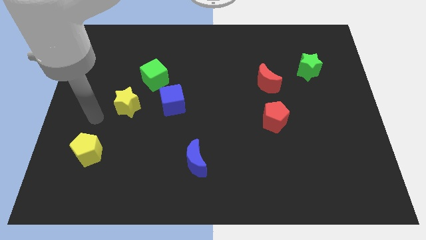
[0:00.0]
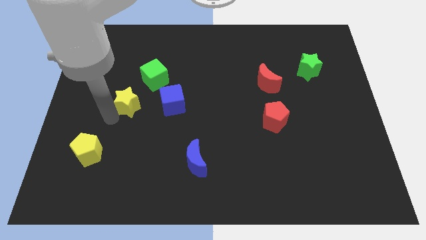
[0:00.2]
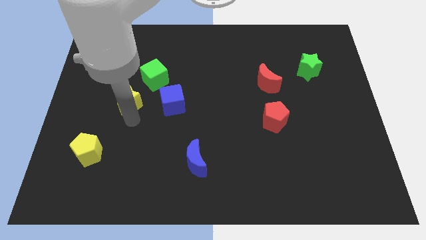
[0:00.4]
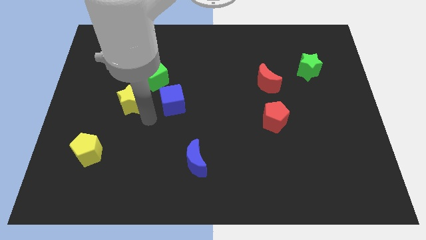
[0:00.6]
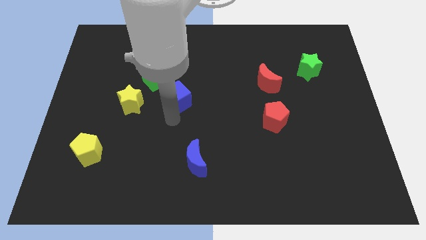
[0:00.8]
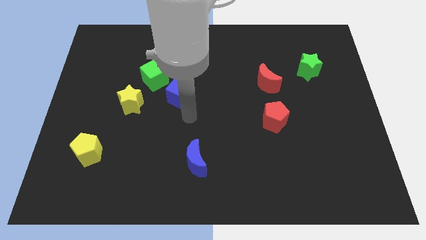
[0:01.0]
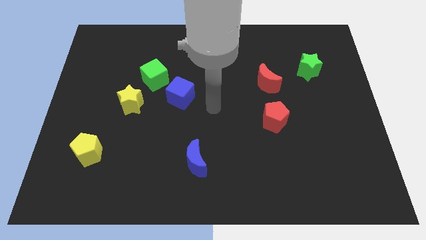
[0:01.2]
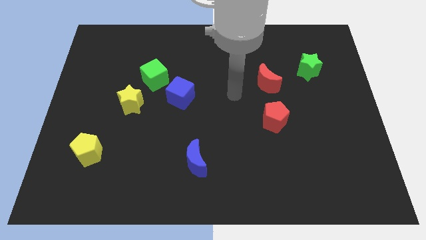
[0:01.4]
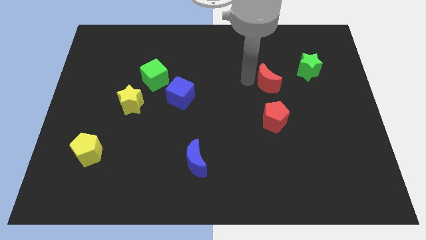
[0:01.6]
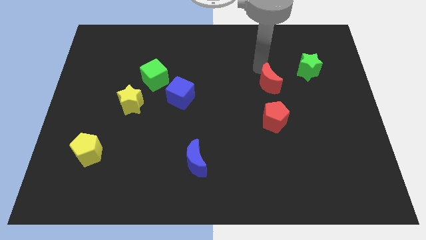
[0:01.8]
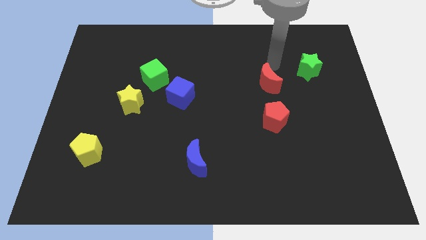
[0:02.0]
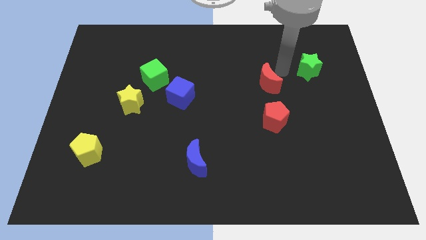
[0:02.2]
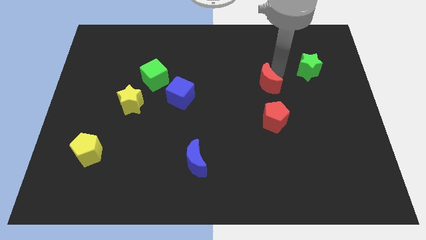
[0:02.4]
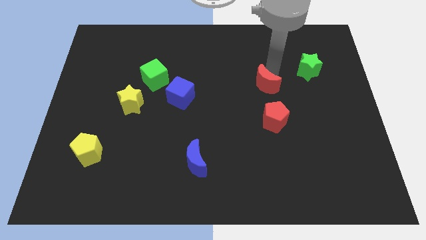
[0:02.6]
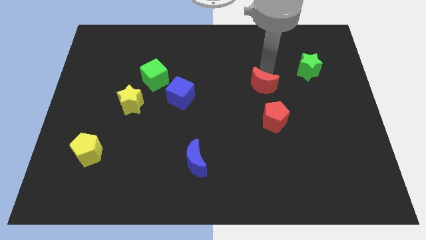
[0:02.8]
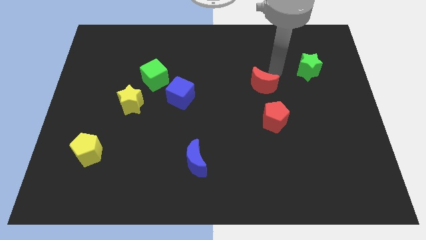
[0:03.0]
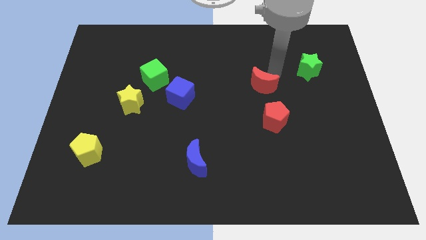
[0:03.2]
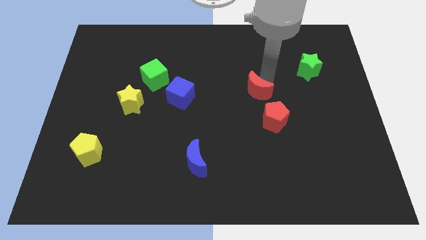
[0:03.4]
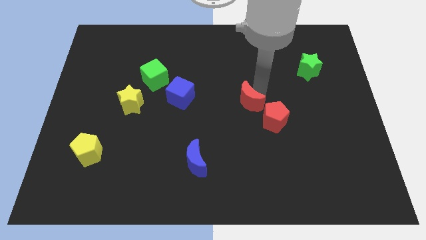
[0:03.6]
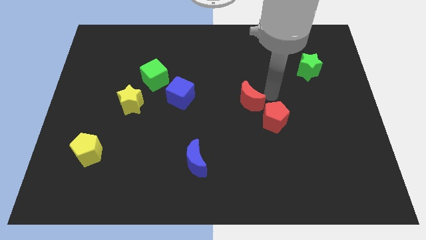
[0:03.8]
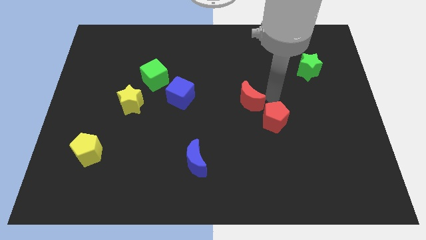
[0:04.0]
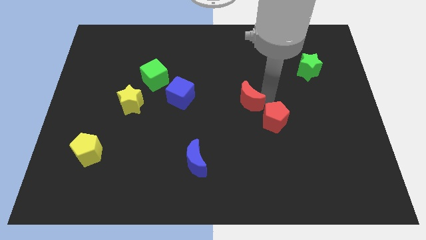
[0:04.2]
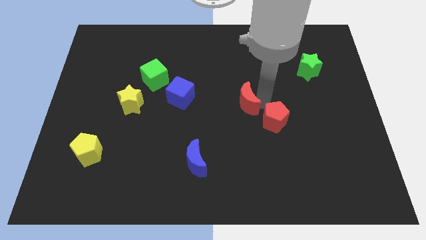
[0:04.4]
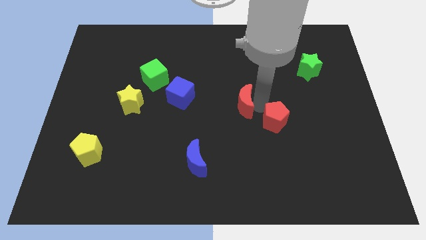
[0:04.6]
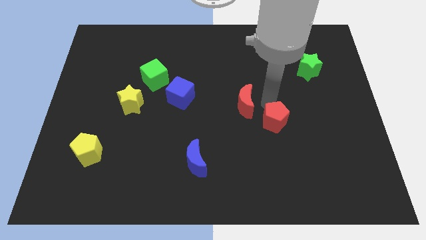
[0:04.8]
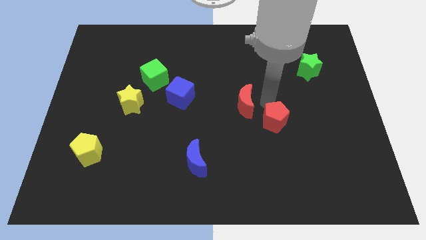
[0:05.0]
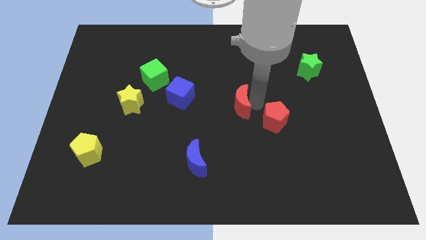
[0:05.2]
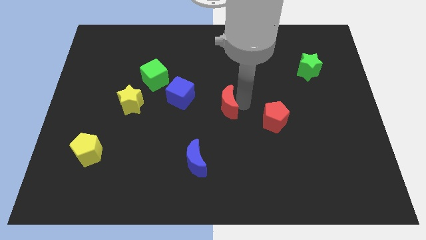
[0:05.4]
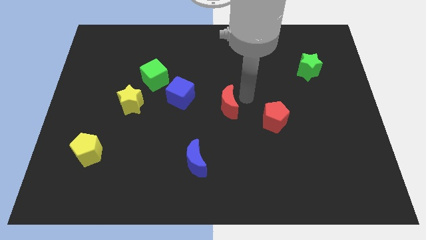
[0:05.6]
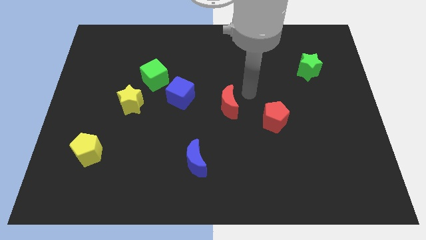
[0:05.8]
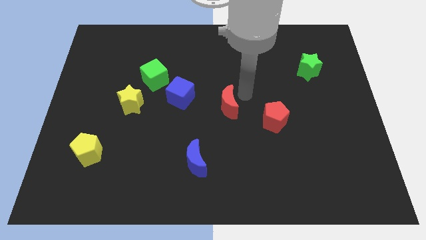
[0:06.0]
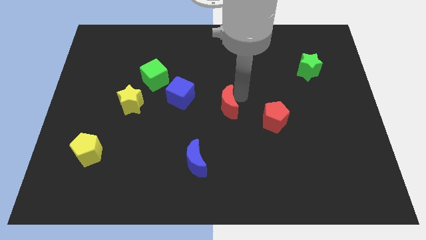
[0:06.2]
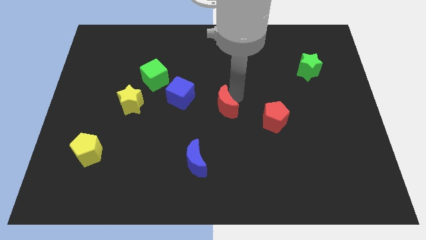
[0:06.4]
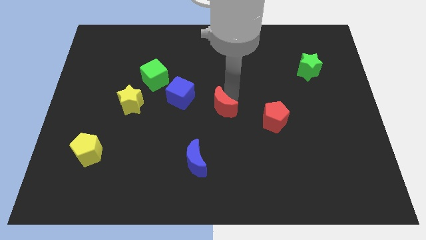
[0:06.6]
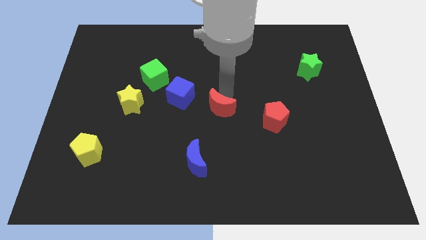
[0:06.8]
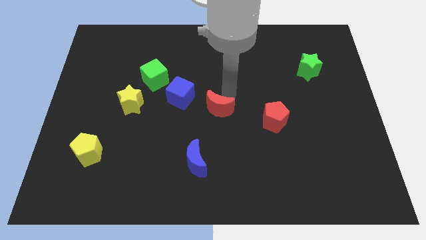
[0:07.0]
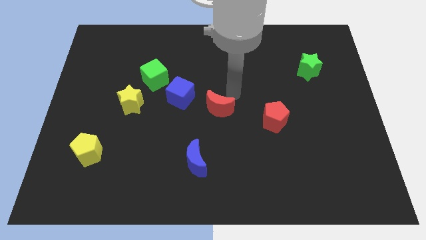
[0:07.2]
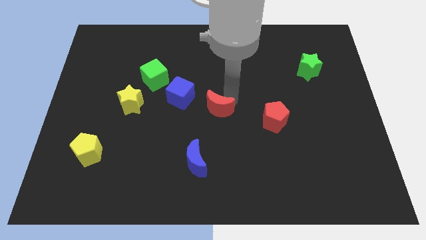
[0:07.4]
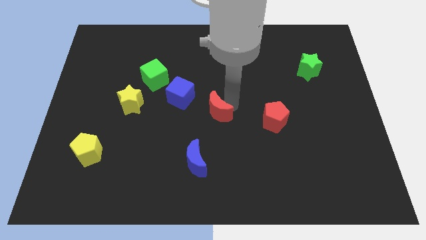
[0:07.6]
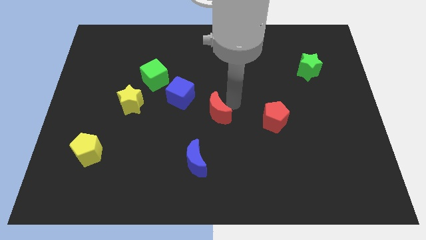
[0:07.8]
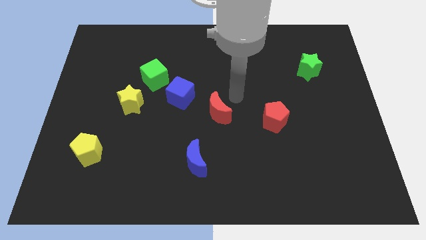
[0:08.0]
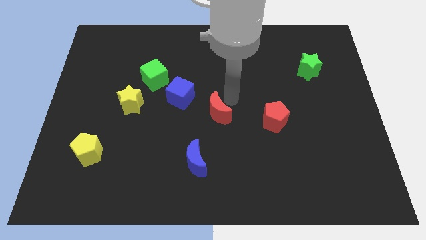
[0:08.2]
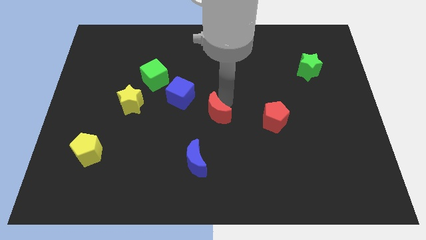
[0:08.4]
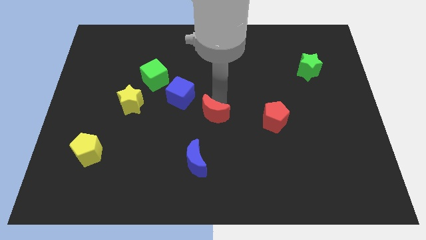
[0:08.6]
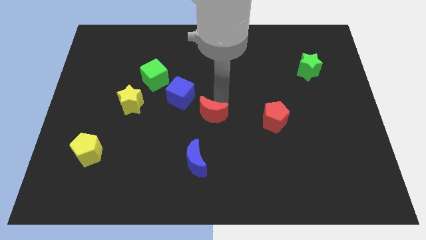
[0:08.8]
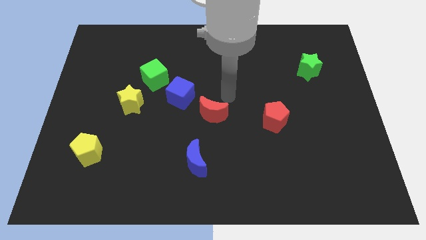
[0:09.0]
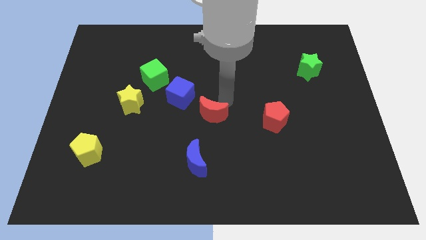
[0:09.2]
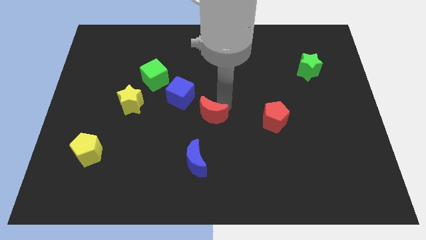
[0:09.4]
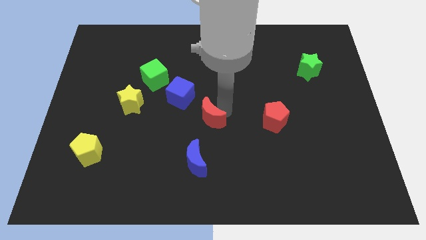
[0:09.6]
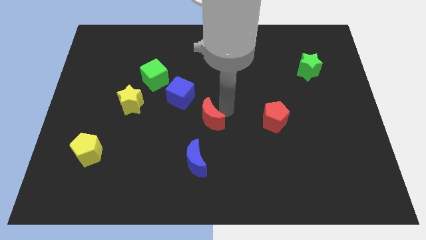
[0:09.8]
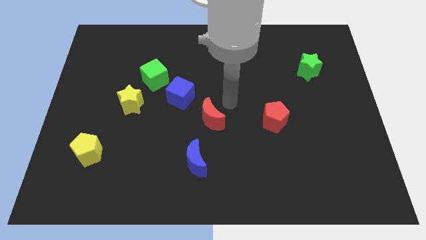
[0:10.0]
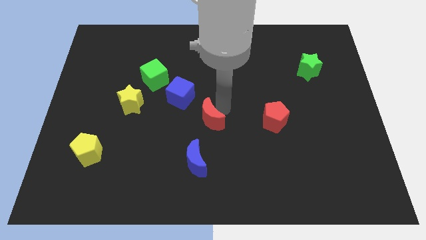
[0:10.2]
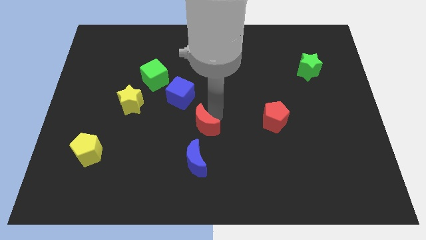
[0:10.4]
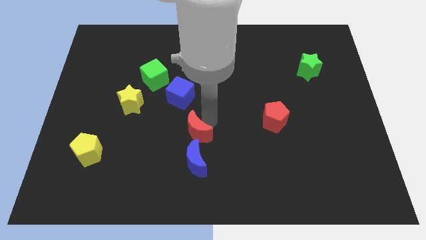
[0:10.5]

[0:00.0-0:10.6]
move the red moon down and left

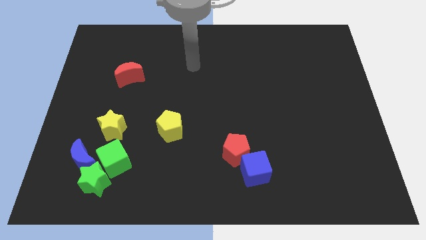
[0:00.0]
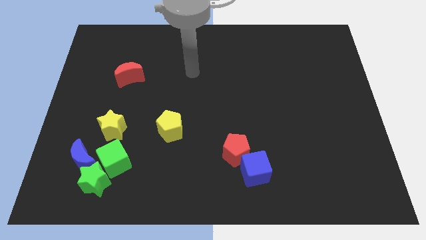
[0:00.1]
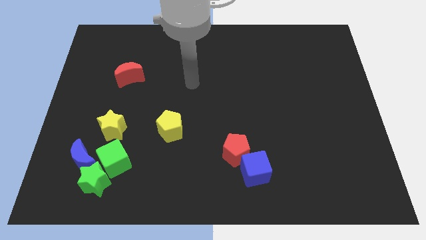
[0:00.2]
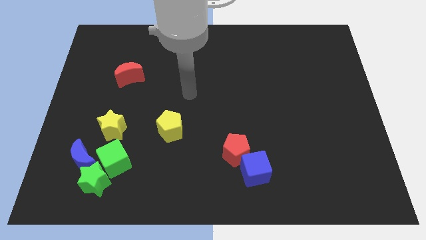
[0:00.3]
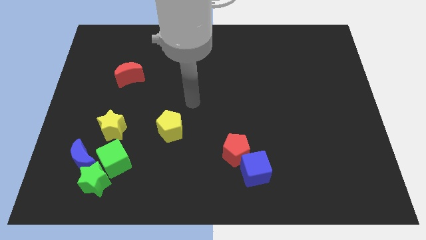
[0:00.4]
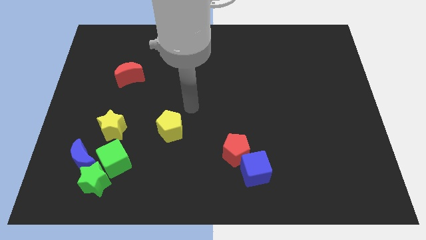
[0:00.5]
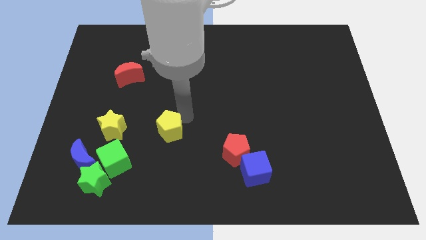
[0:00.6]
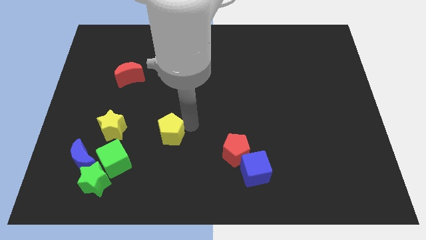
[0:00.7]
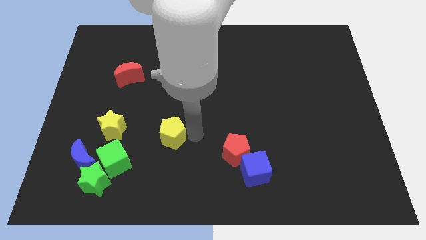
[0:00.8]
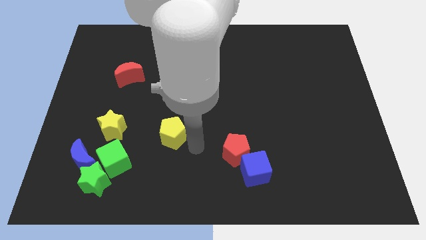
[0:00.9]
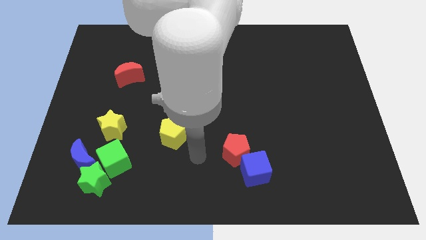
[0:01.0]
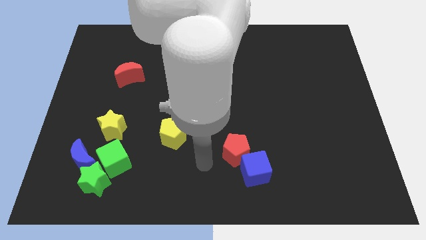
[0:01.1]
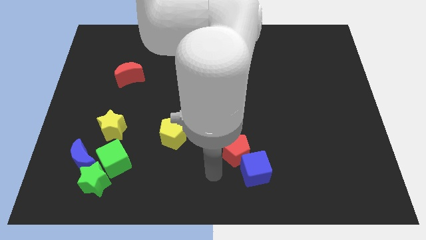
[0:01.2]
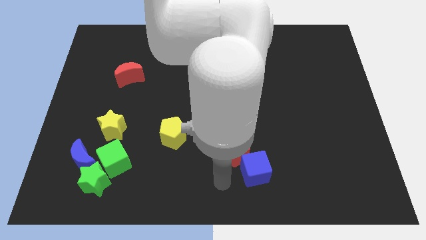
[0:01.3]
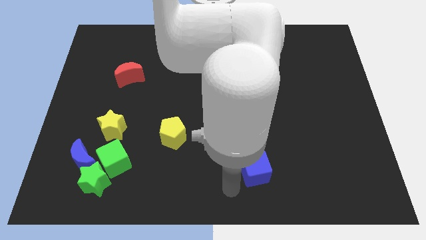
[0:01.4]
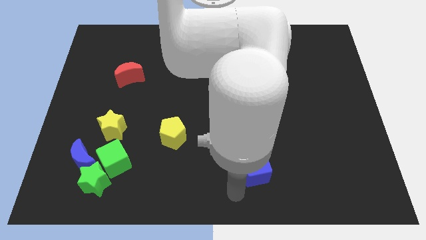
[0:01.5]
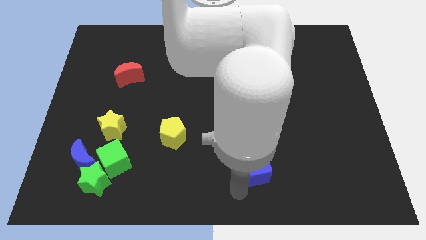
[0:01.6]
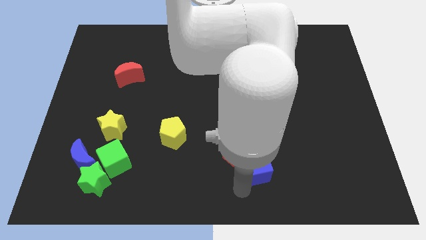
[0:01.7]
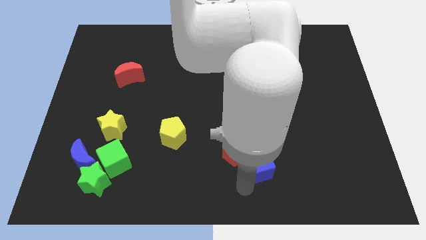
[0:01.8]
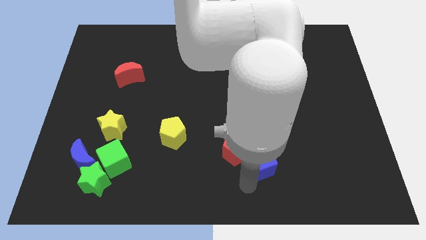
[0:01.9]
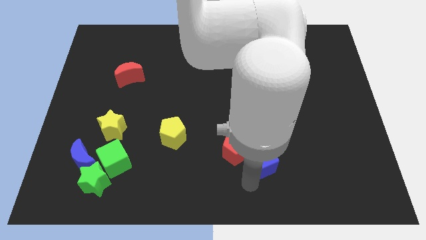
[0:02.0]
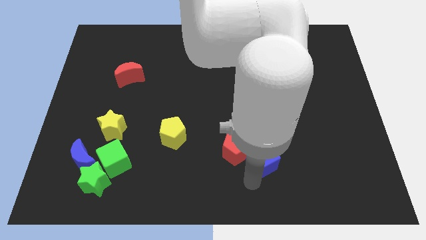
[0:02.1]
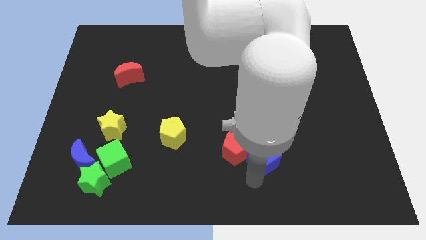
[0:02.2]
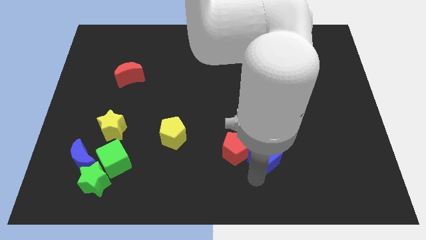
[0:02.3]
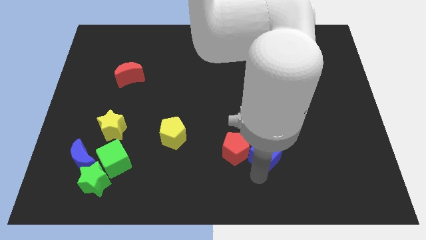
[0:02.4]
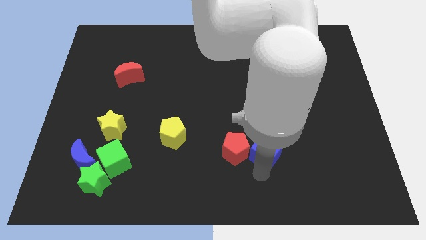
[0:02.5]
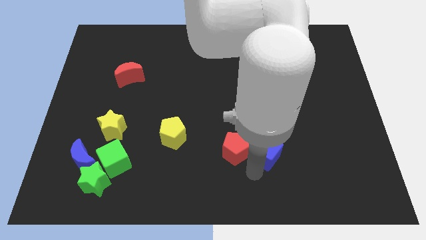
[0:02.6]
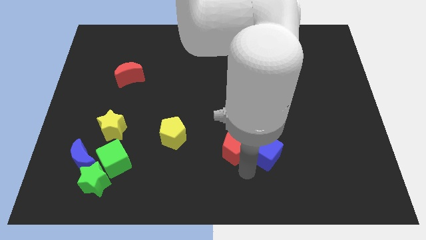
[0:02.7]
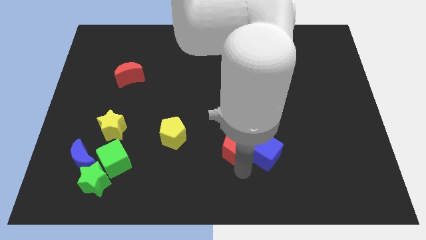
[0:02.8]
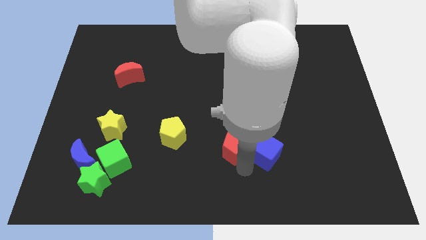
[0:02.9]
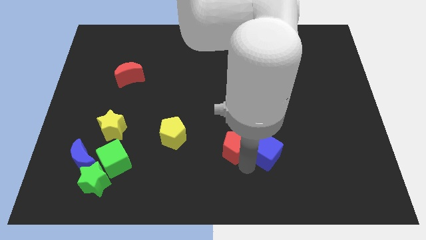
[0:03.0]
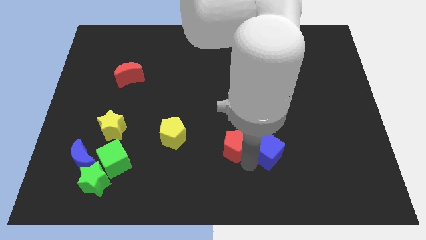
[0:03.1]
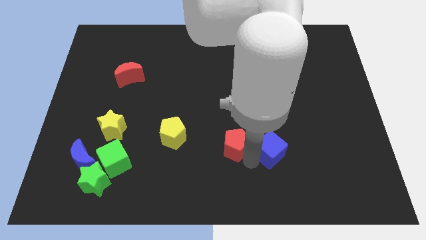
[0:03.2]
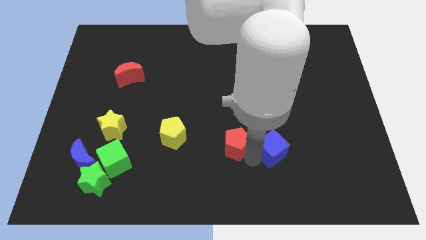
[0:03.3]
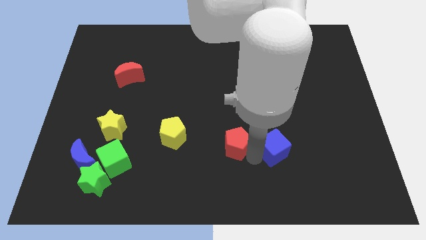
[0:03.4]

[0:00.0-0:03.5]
move the blue cube a little bit up and right
